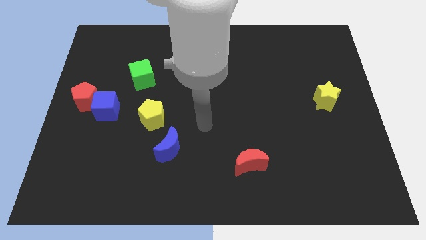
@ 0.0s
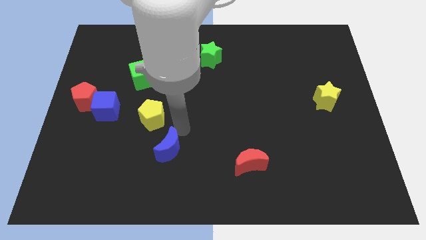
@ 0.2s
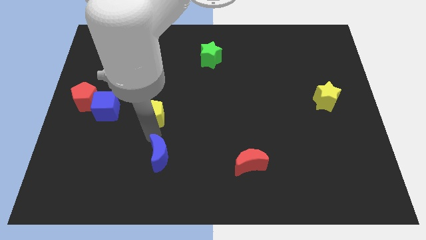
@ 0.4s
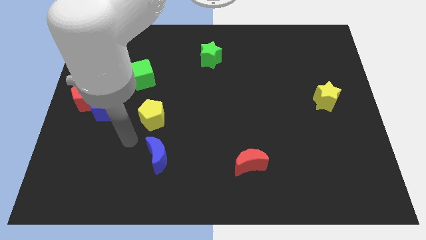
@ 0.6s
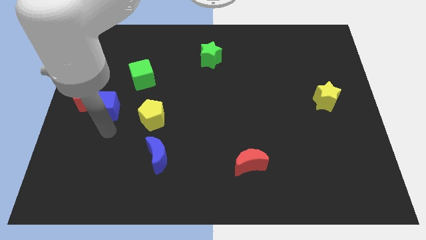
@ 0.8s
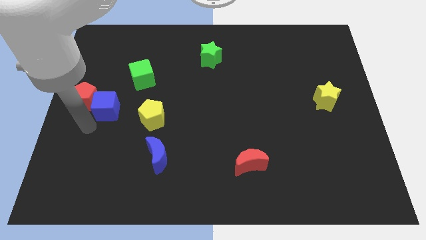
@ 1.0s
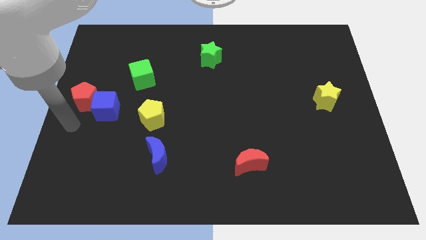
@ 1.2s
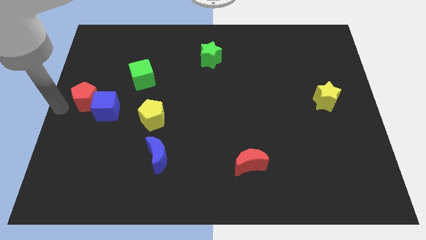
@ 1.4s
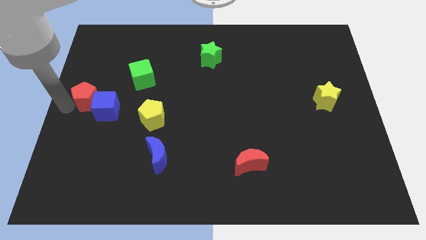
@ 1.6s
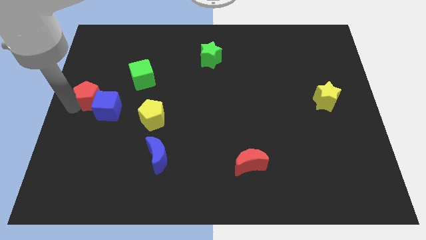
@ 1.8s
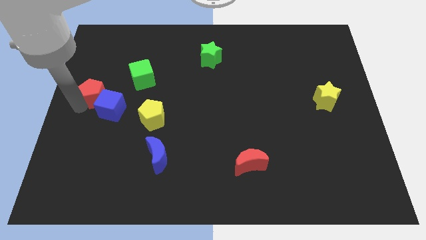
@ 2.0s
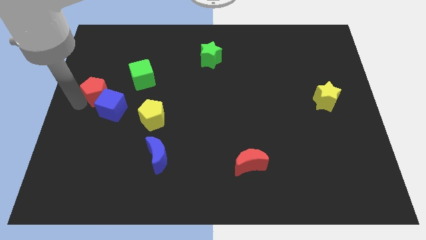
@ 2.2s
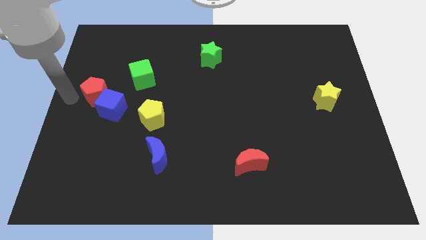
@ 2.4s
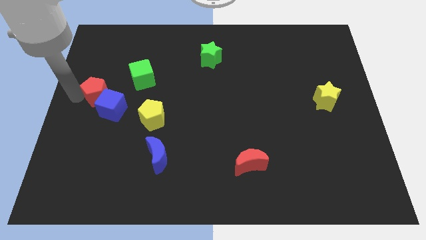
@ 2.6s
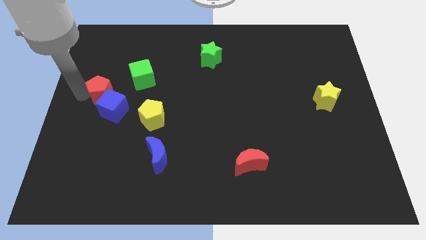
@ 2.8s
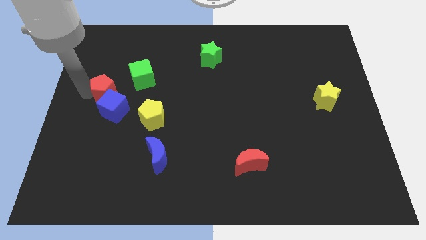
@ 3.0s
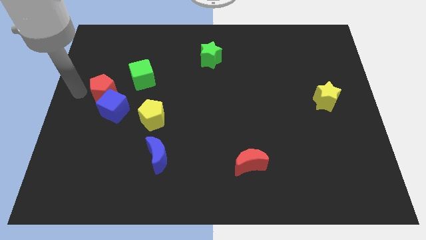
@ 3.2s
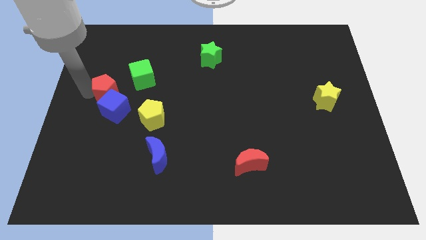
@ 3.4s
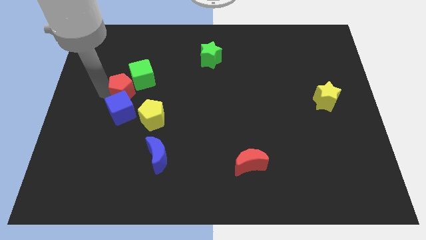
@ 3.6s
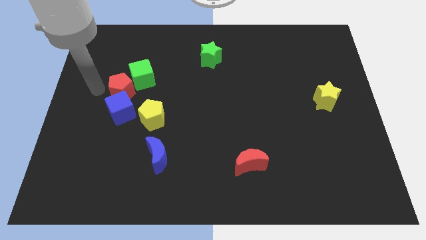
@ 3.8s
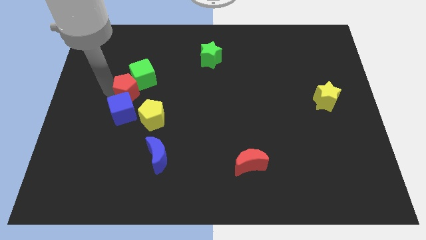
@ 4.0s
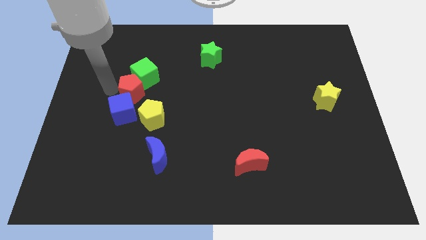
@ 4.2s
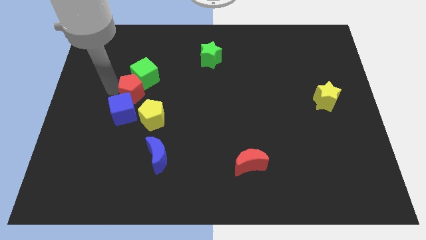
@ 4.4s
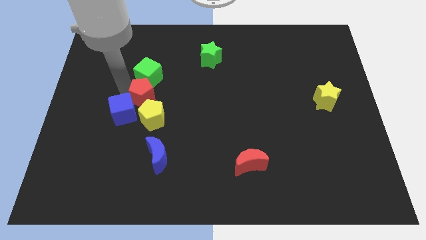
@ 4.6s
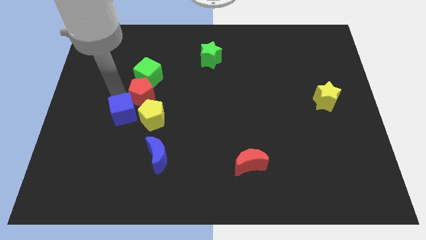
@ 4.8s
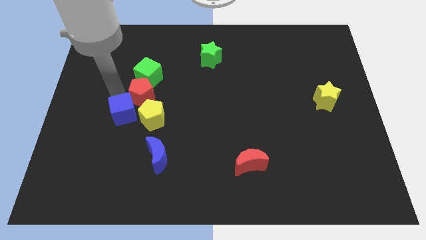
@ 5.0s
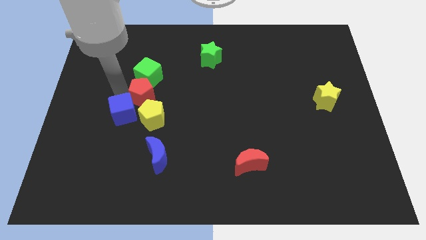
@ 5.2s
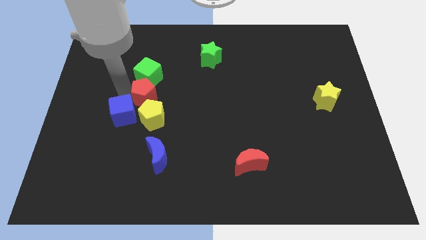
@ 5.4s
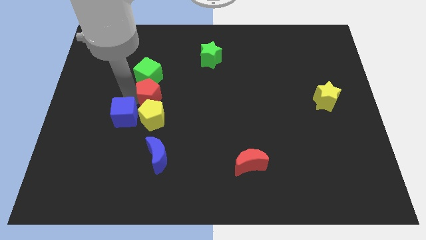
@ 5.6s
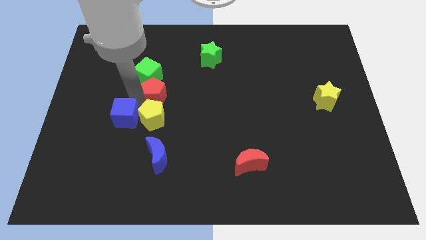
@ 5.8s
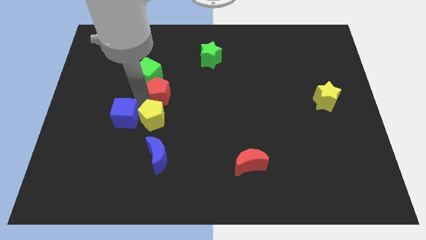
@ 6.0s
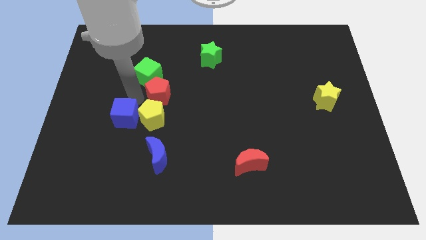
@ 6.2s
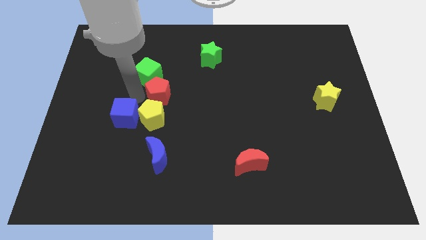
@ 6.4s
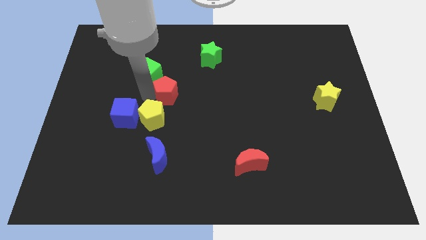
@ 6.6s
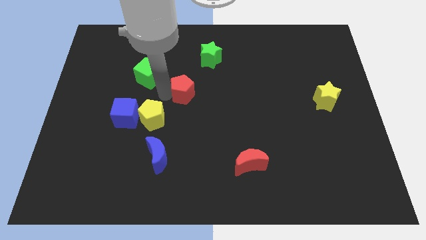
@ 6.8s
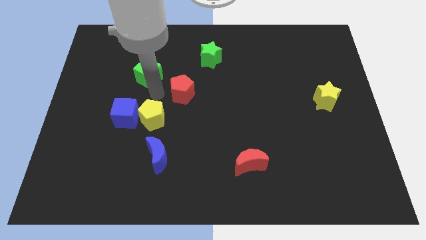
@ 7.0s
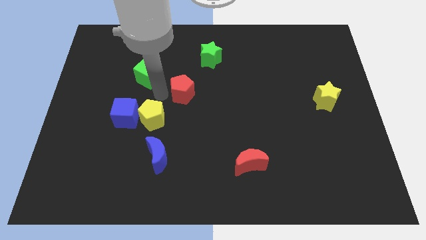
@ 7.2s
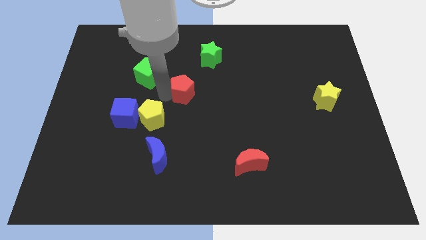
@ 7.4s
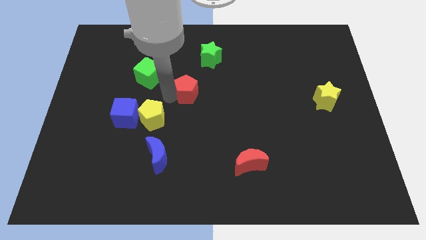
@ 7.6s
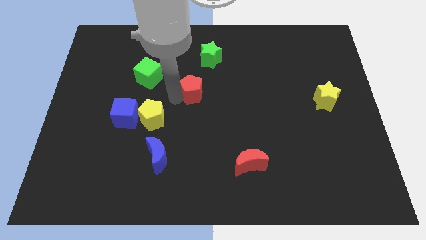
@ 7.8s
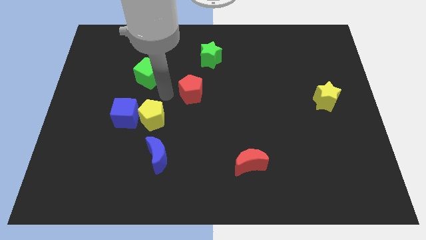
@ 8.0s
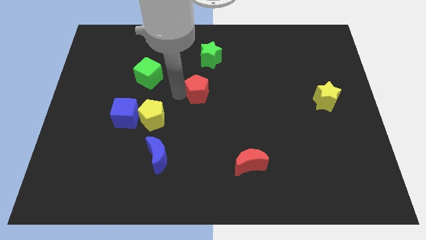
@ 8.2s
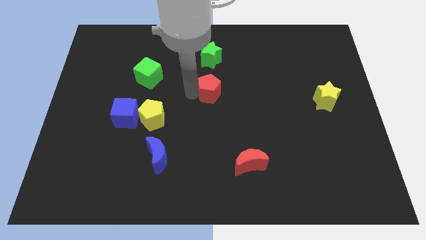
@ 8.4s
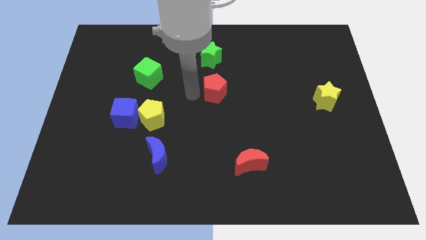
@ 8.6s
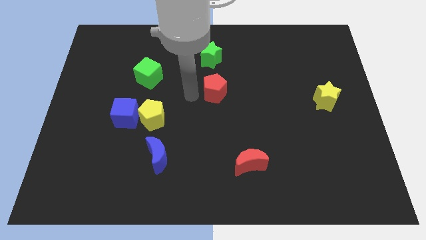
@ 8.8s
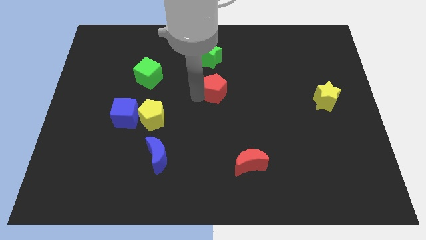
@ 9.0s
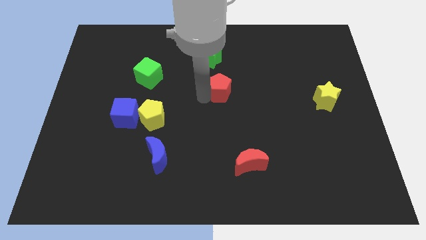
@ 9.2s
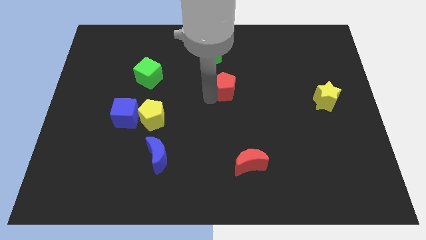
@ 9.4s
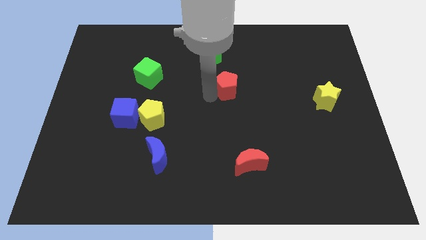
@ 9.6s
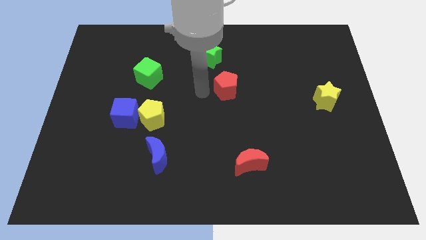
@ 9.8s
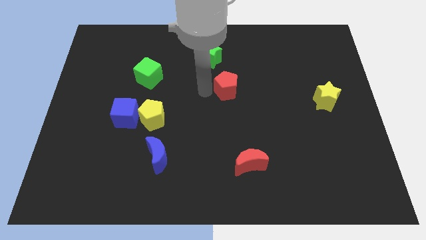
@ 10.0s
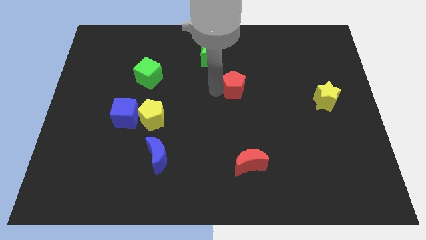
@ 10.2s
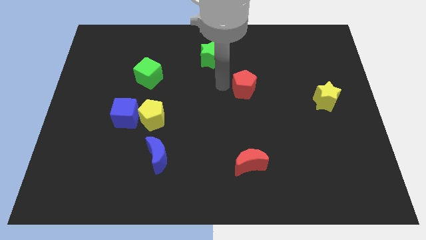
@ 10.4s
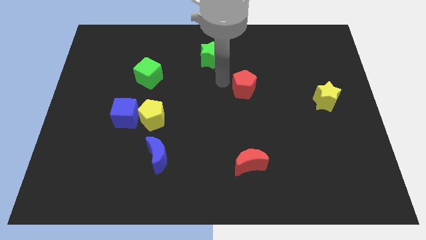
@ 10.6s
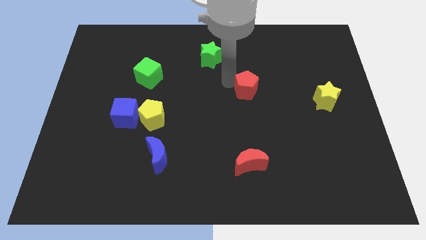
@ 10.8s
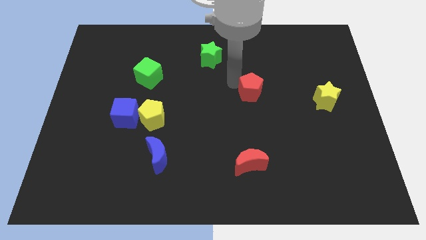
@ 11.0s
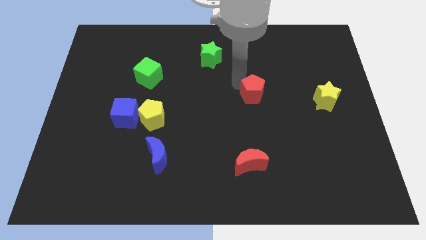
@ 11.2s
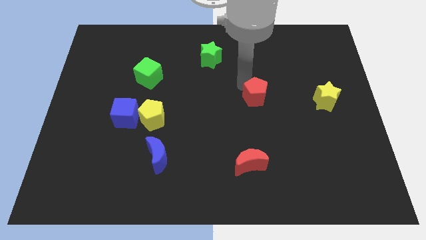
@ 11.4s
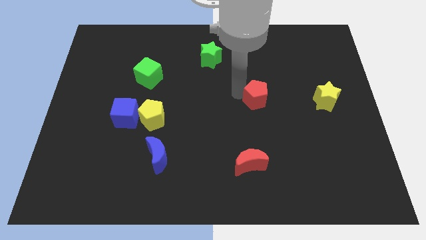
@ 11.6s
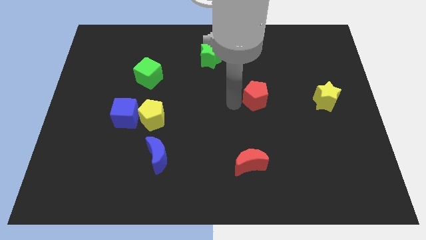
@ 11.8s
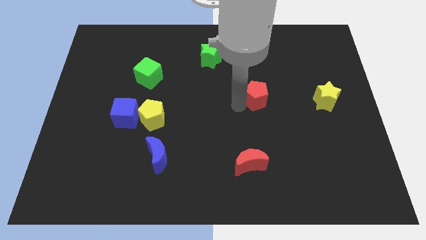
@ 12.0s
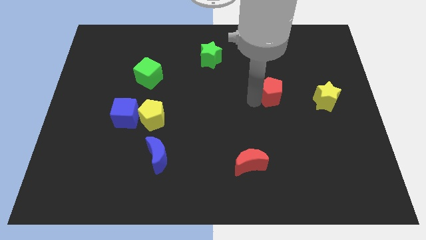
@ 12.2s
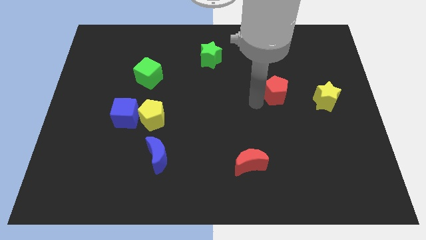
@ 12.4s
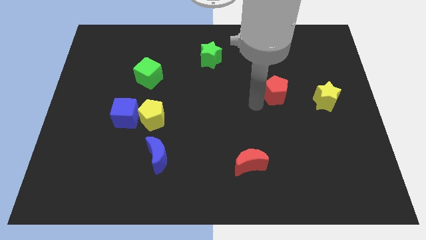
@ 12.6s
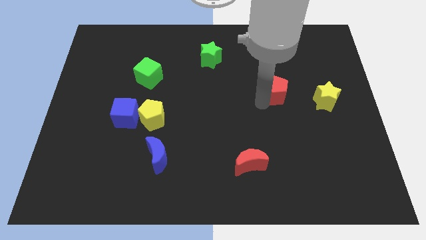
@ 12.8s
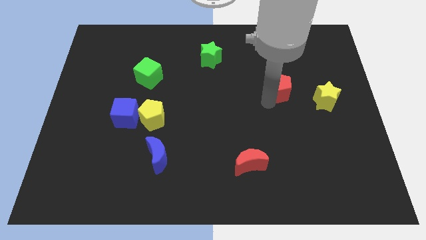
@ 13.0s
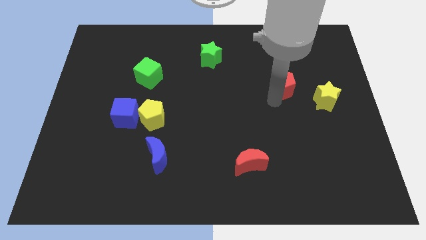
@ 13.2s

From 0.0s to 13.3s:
move the red pentagon to the top left side of the yellow star
